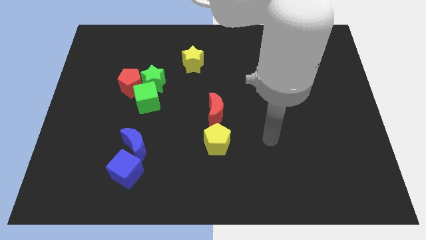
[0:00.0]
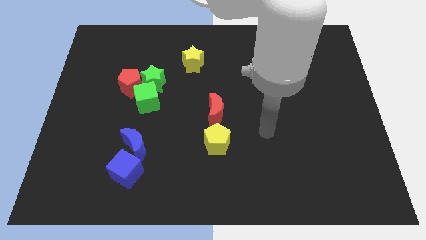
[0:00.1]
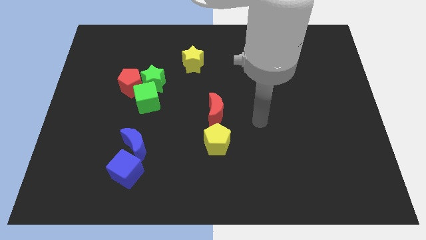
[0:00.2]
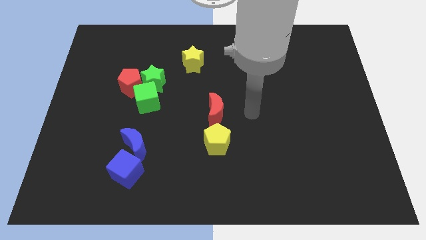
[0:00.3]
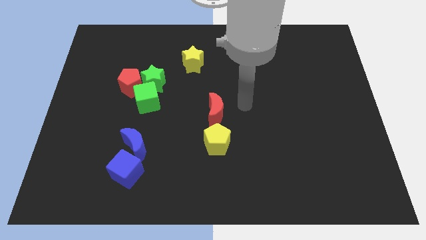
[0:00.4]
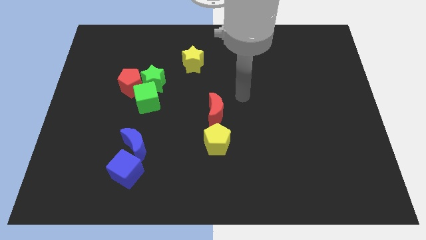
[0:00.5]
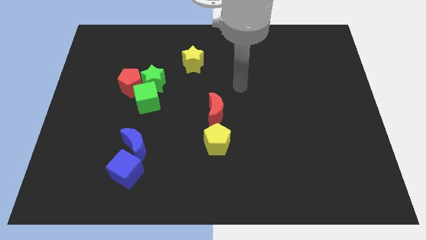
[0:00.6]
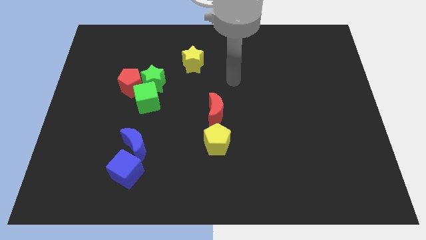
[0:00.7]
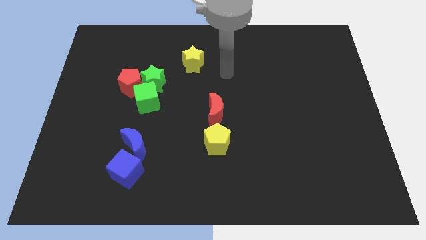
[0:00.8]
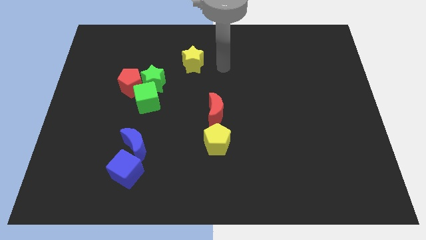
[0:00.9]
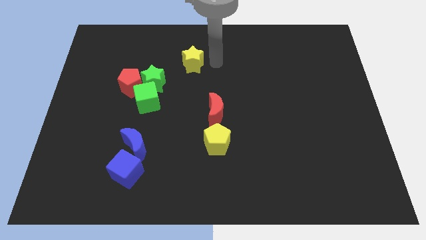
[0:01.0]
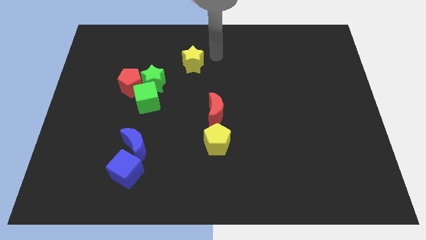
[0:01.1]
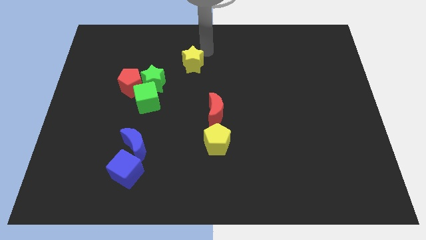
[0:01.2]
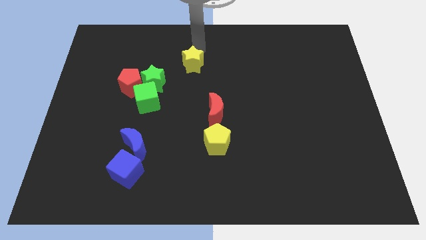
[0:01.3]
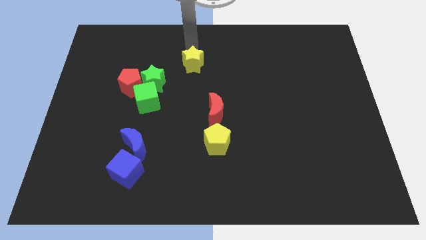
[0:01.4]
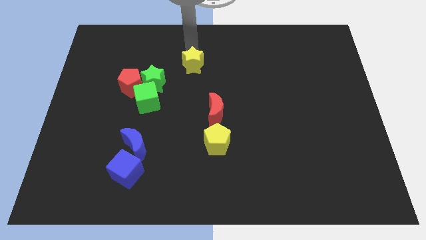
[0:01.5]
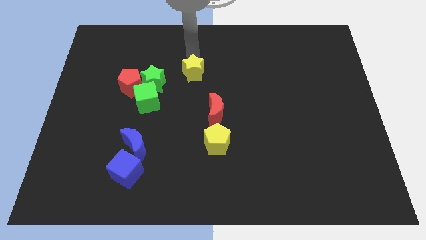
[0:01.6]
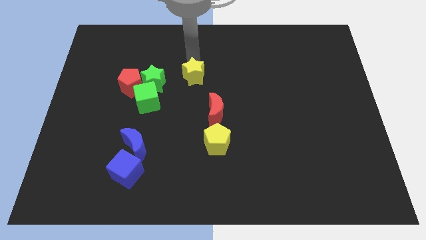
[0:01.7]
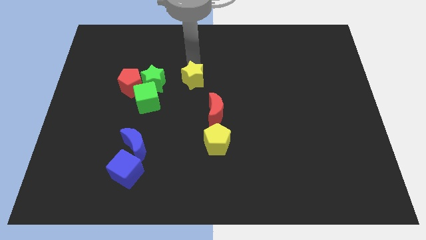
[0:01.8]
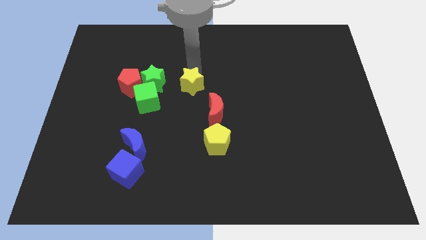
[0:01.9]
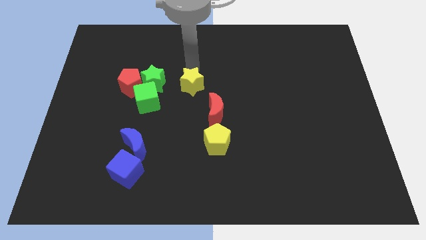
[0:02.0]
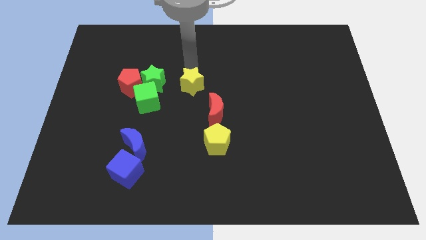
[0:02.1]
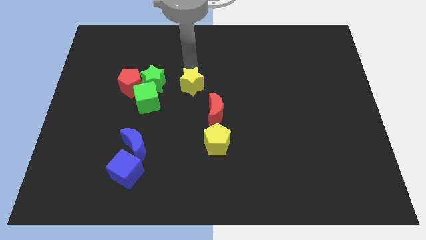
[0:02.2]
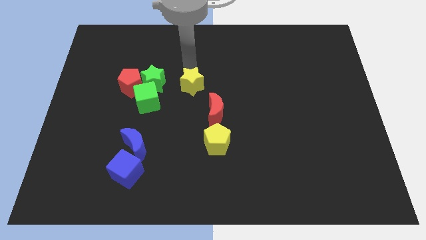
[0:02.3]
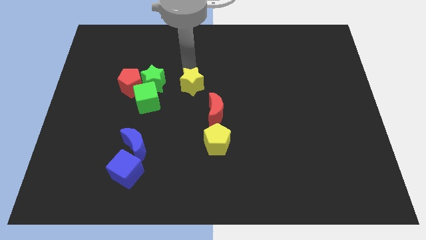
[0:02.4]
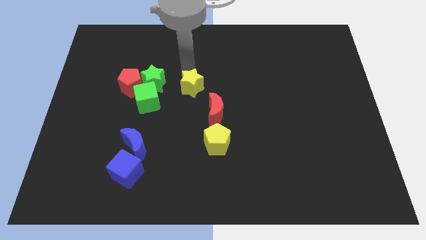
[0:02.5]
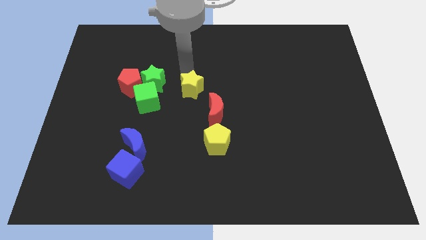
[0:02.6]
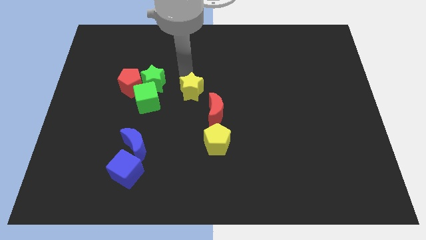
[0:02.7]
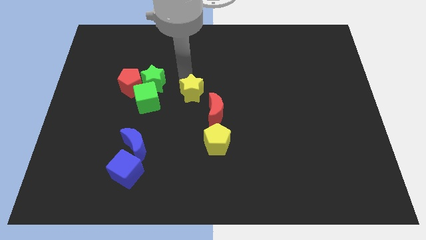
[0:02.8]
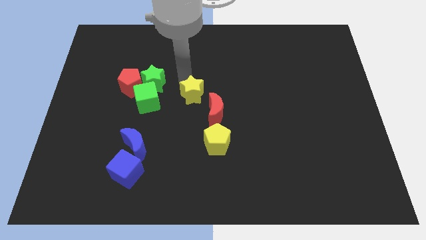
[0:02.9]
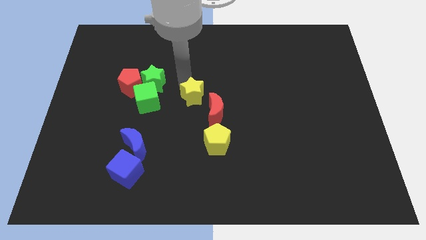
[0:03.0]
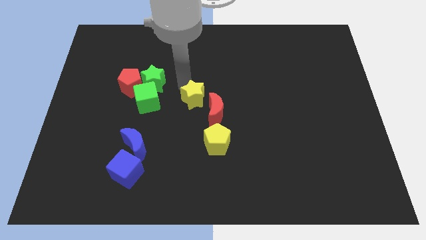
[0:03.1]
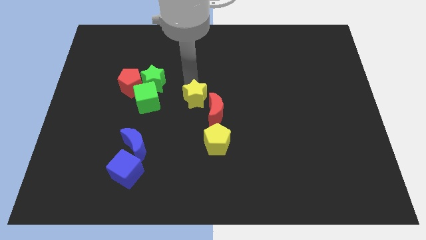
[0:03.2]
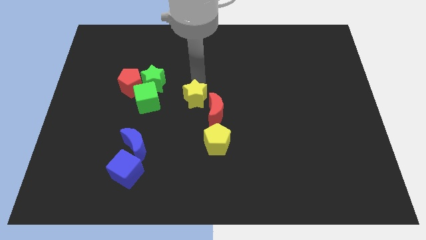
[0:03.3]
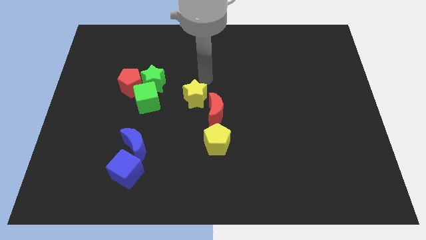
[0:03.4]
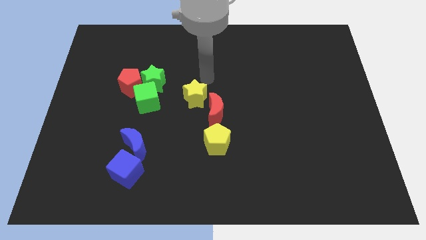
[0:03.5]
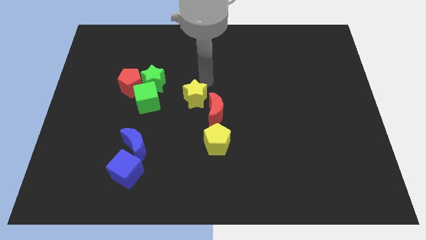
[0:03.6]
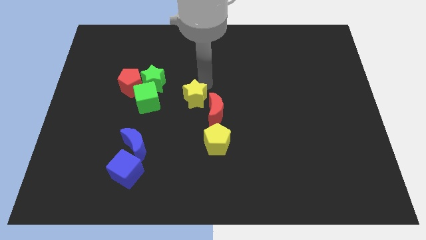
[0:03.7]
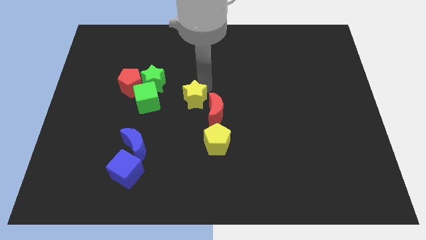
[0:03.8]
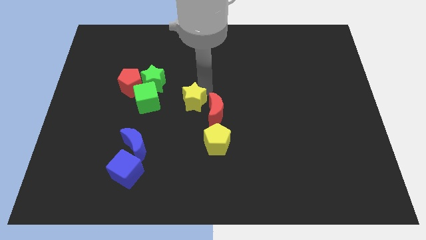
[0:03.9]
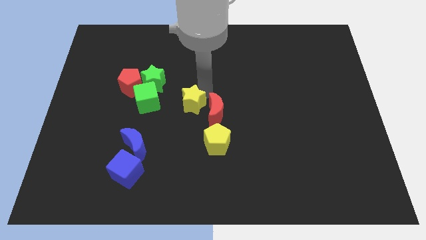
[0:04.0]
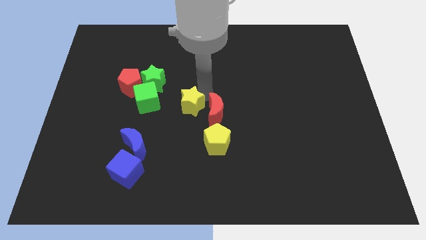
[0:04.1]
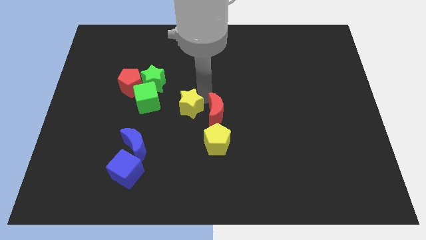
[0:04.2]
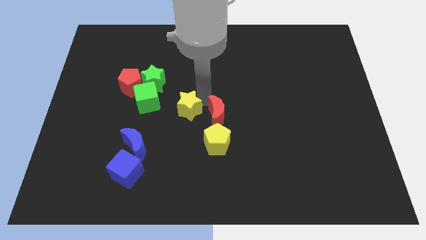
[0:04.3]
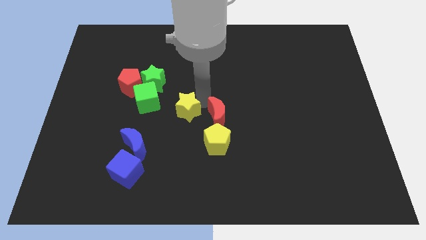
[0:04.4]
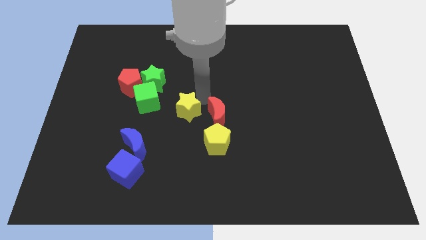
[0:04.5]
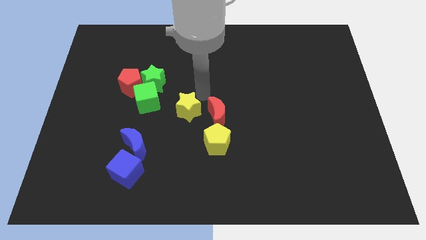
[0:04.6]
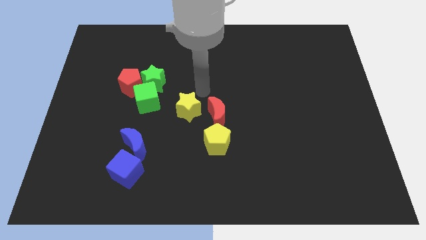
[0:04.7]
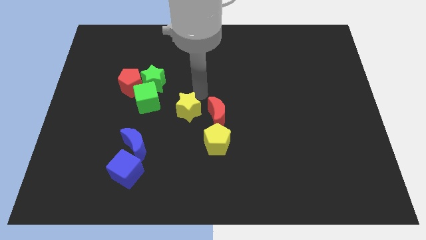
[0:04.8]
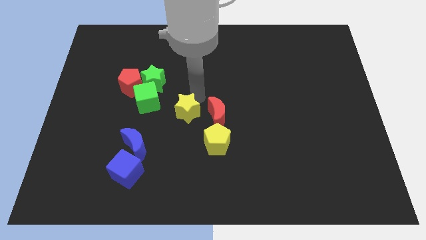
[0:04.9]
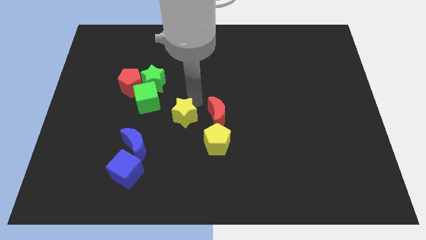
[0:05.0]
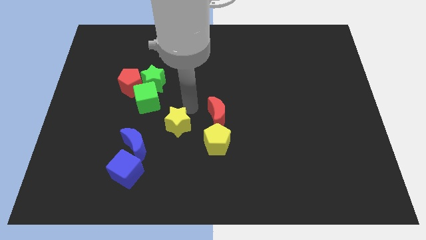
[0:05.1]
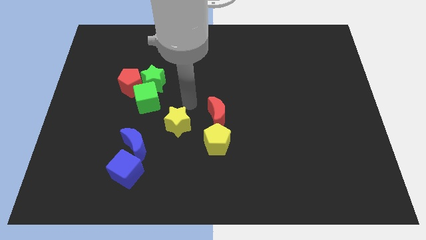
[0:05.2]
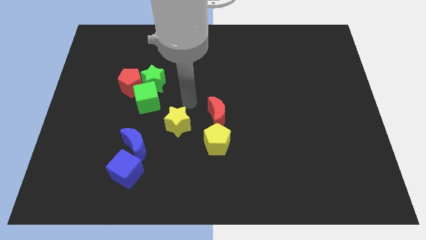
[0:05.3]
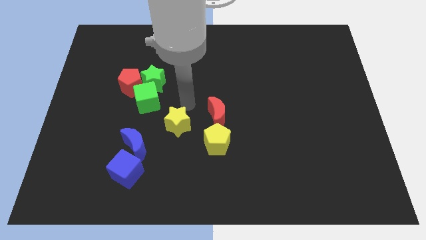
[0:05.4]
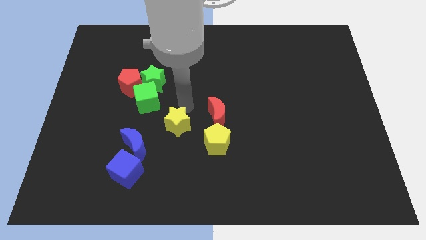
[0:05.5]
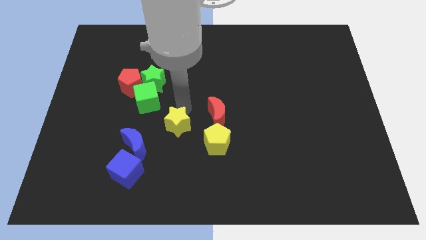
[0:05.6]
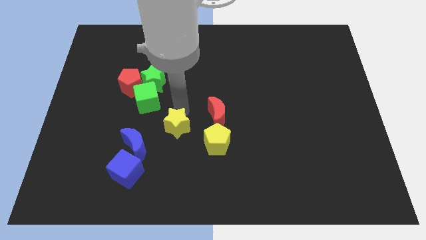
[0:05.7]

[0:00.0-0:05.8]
push the yellow star left of the yellow pentagon

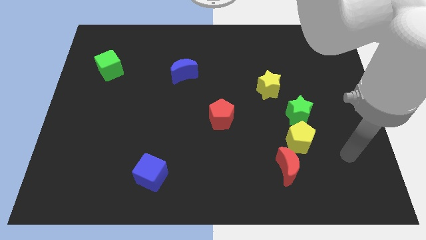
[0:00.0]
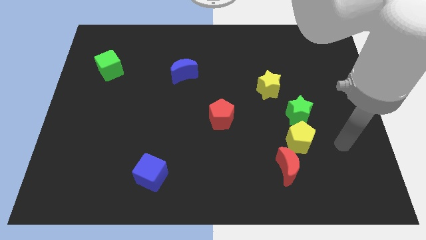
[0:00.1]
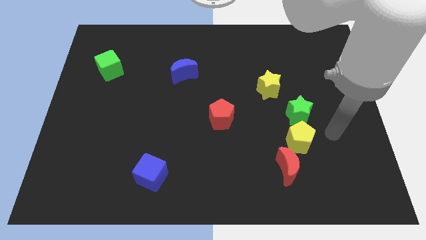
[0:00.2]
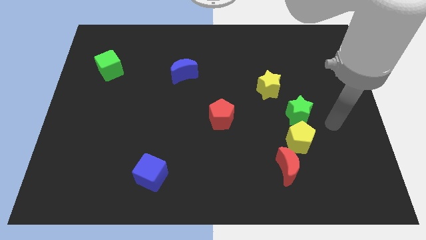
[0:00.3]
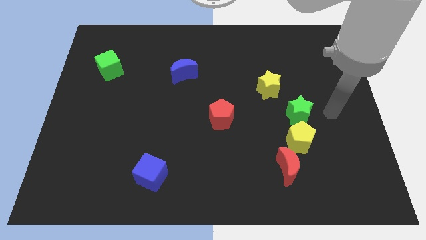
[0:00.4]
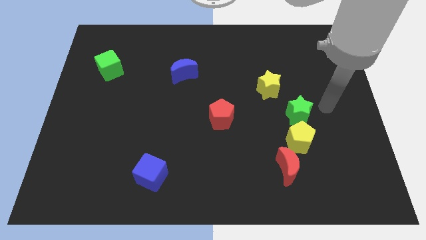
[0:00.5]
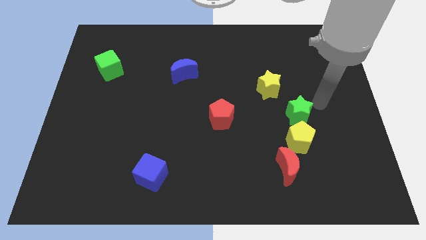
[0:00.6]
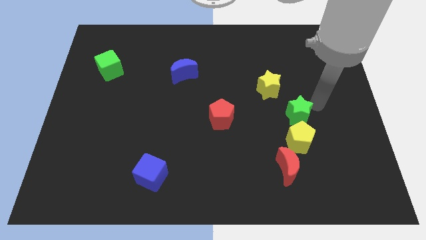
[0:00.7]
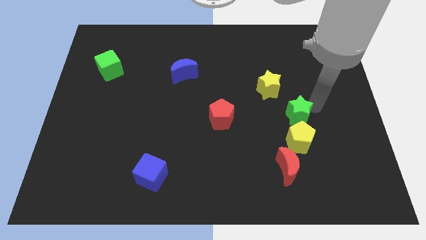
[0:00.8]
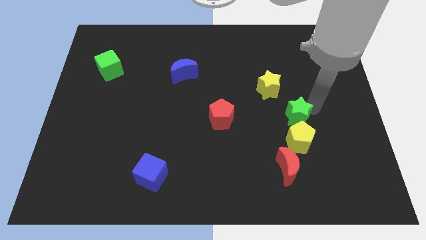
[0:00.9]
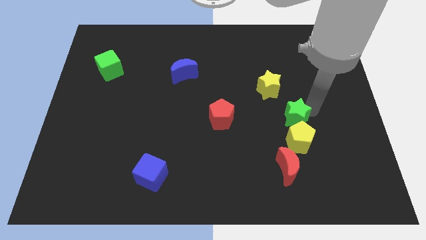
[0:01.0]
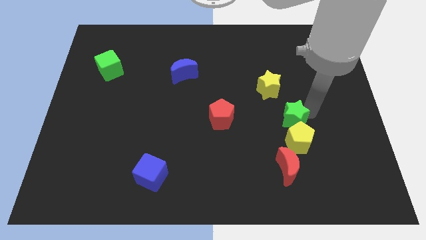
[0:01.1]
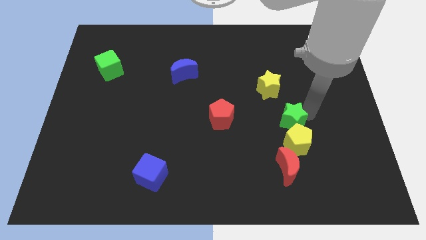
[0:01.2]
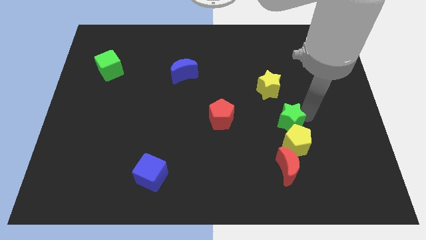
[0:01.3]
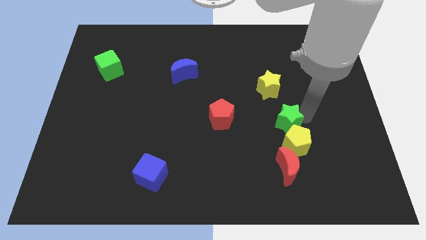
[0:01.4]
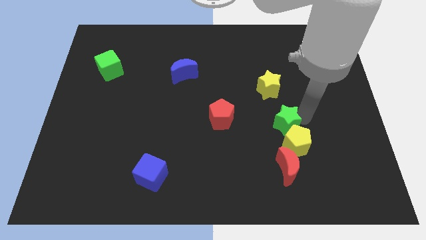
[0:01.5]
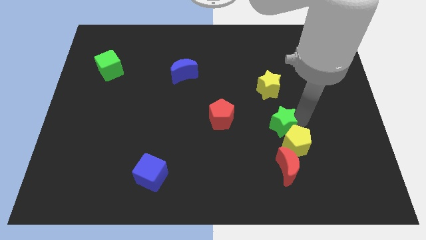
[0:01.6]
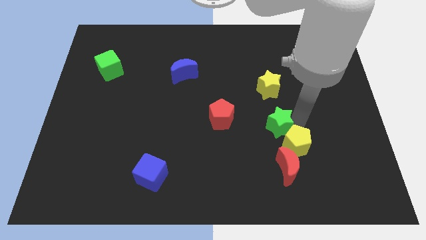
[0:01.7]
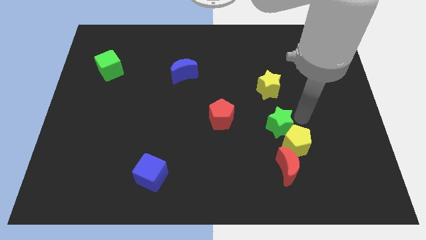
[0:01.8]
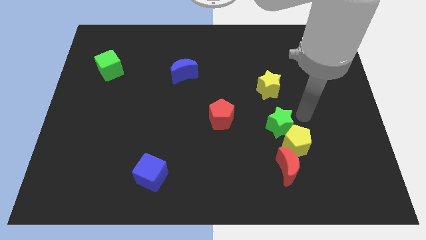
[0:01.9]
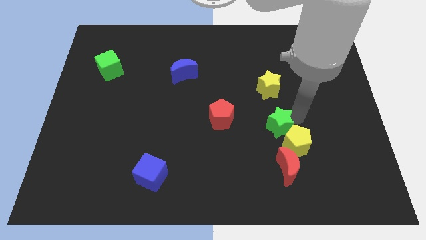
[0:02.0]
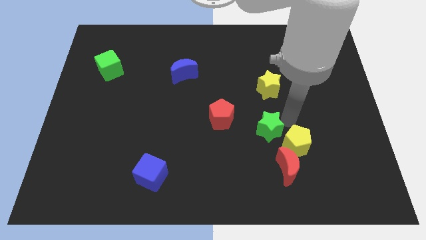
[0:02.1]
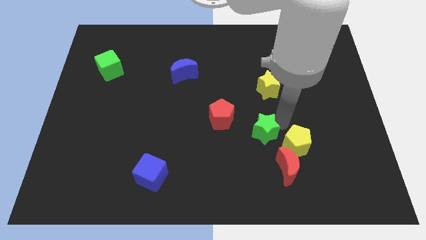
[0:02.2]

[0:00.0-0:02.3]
slide the green star to the bottom right side of the red pentagon
